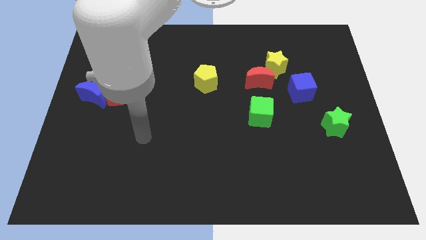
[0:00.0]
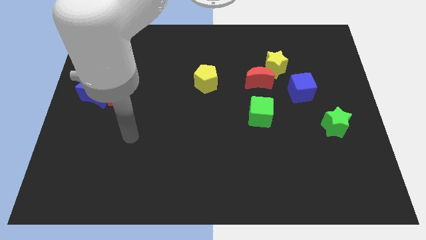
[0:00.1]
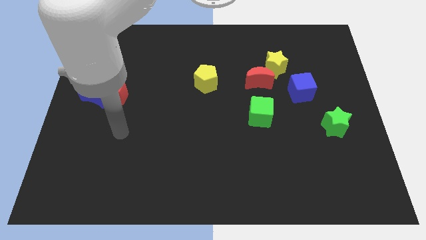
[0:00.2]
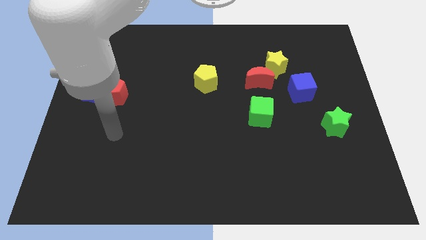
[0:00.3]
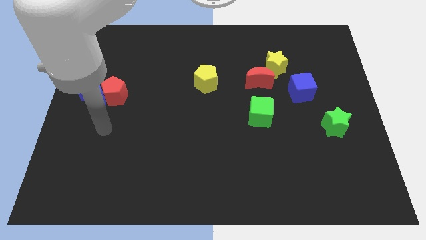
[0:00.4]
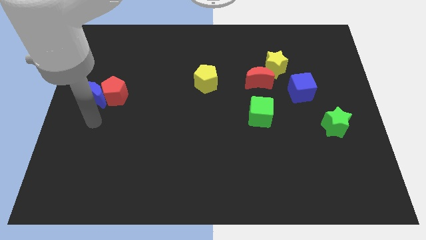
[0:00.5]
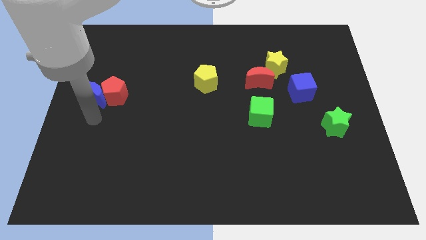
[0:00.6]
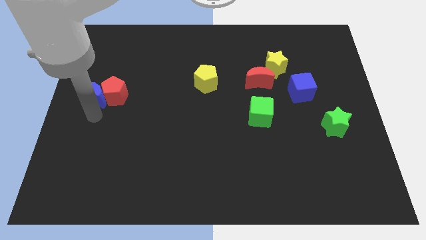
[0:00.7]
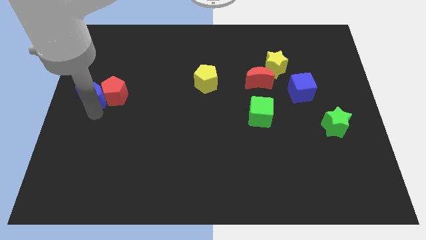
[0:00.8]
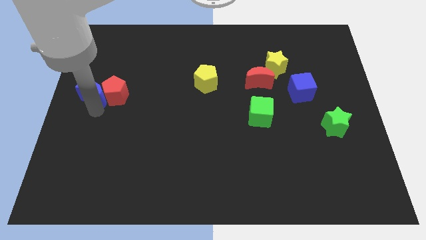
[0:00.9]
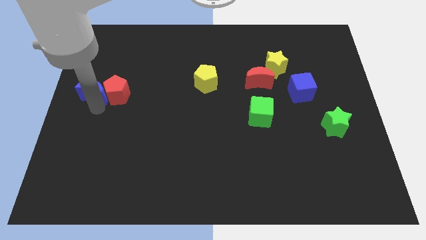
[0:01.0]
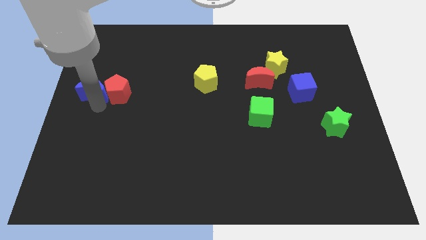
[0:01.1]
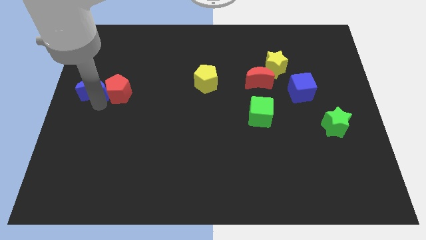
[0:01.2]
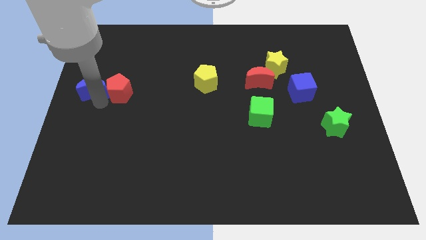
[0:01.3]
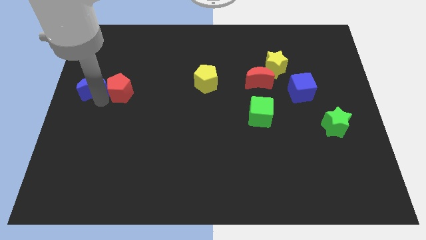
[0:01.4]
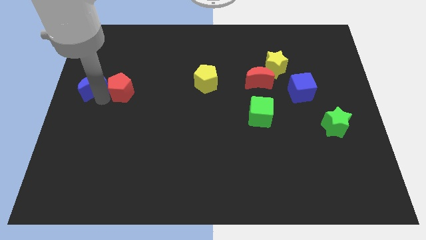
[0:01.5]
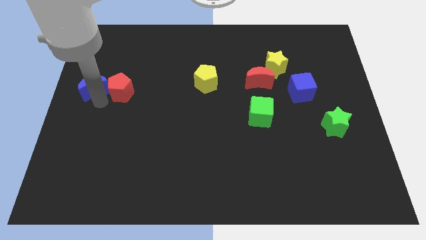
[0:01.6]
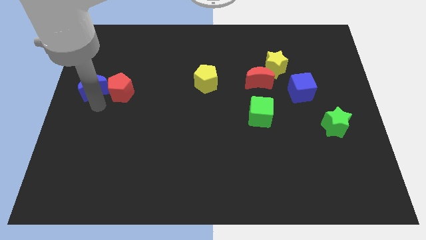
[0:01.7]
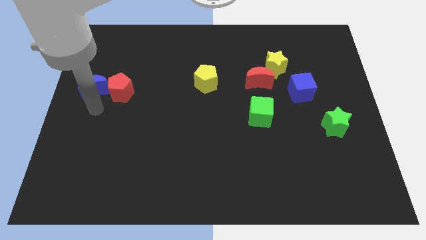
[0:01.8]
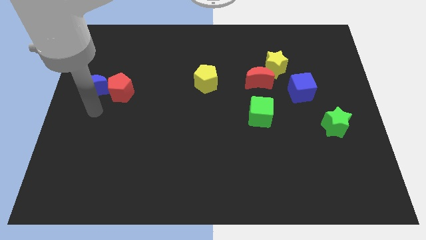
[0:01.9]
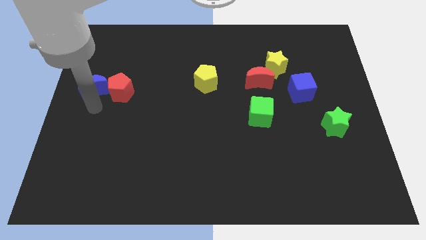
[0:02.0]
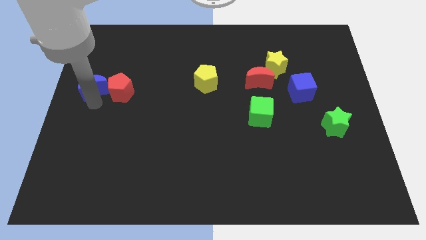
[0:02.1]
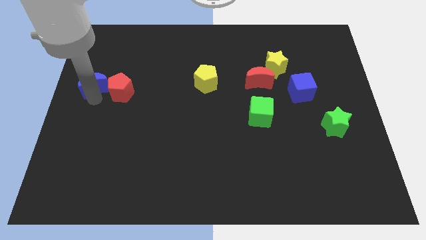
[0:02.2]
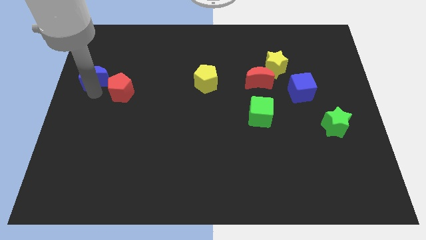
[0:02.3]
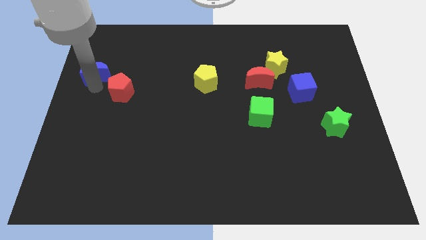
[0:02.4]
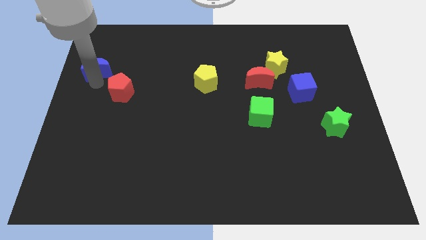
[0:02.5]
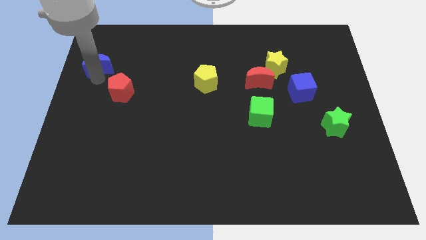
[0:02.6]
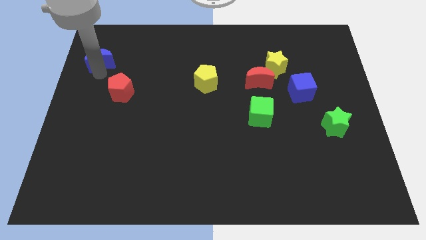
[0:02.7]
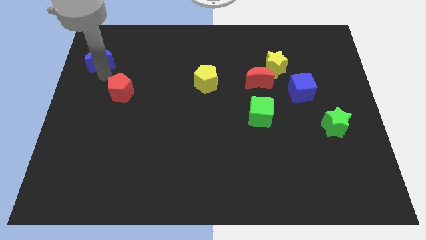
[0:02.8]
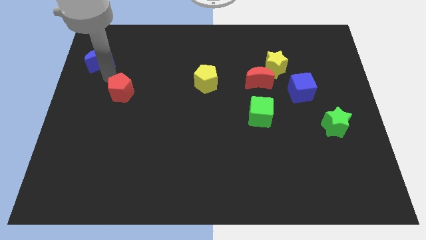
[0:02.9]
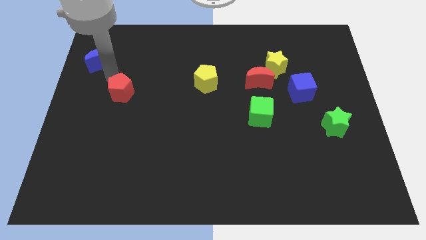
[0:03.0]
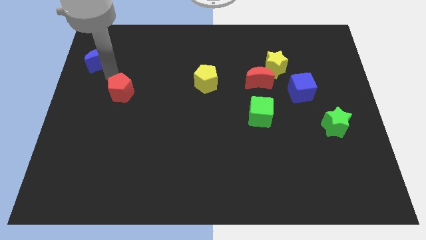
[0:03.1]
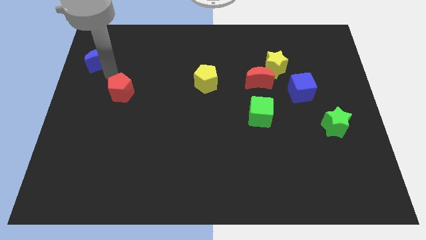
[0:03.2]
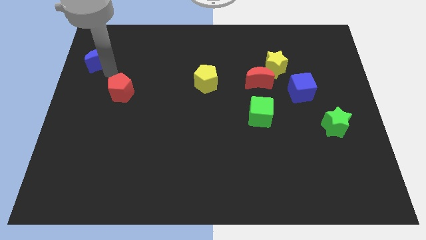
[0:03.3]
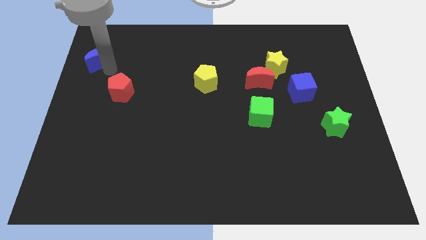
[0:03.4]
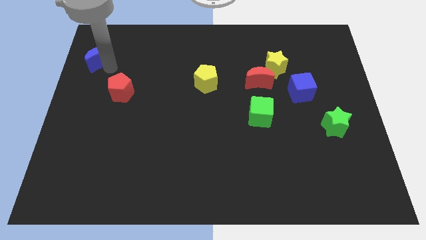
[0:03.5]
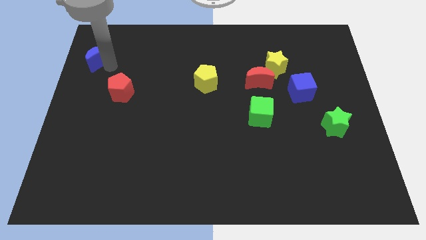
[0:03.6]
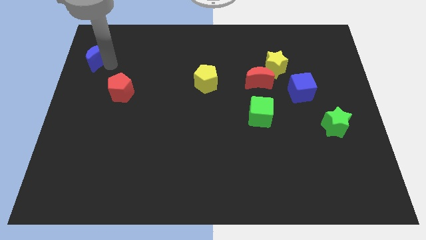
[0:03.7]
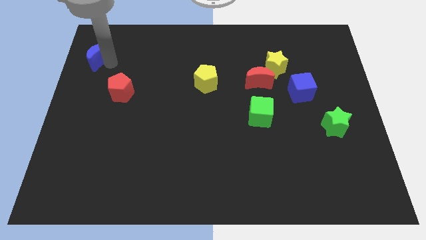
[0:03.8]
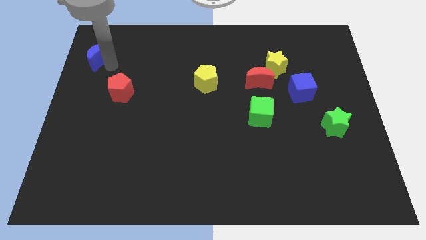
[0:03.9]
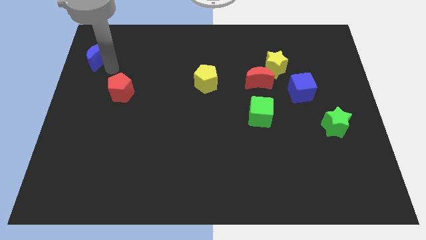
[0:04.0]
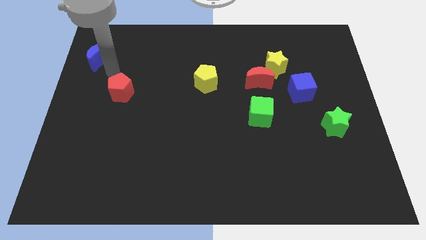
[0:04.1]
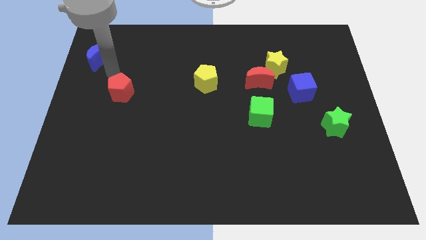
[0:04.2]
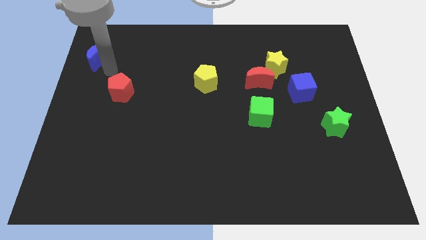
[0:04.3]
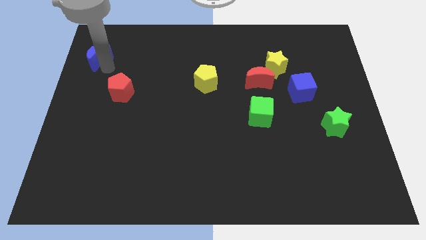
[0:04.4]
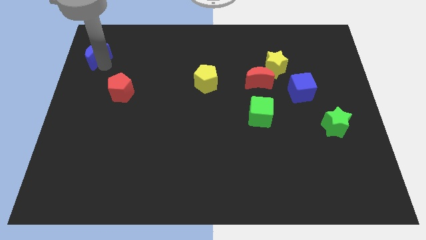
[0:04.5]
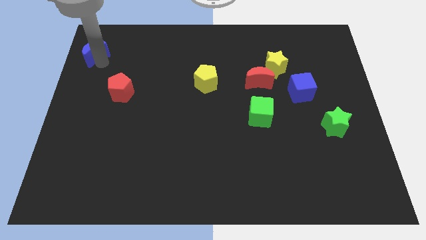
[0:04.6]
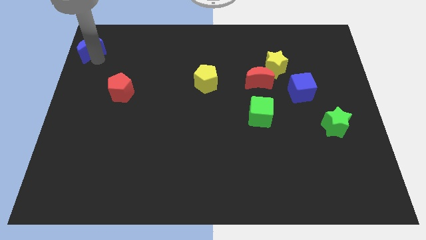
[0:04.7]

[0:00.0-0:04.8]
push the blue moon to the top left corner

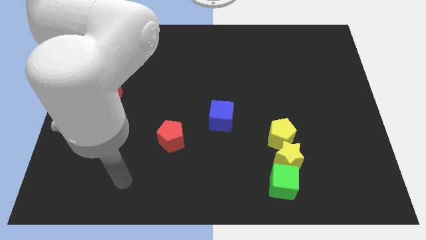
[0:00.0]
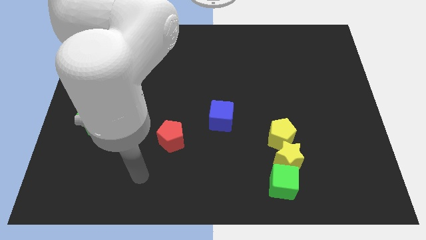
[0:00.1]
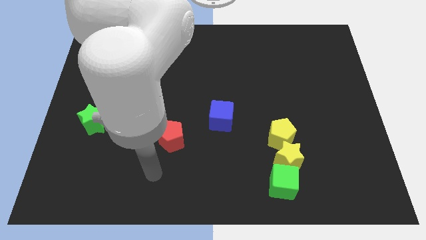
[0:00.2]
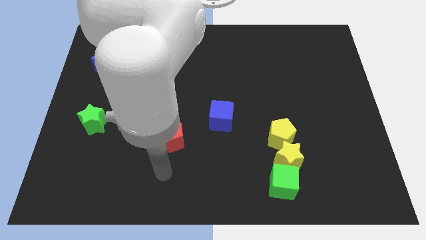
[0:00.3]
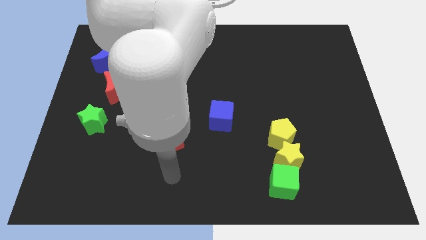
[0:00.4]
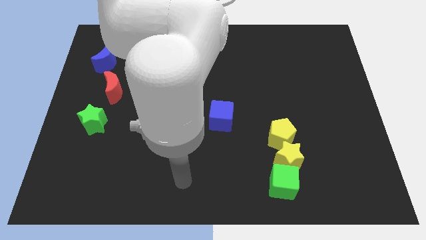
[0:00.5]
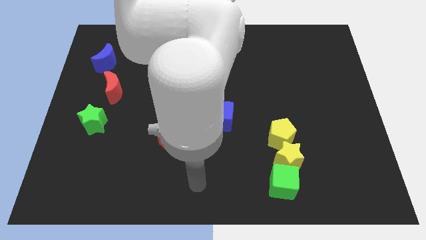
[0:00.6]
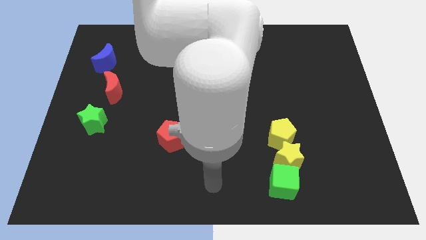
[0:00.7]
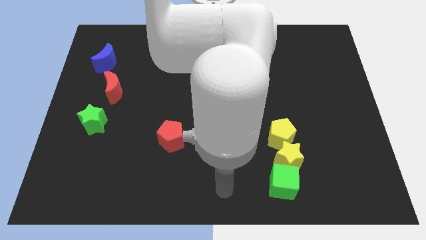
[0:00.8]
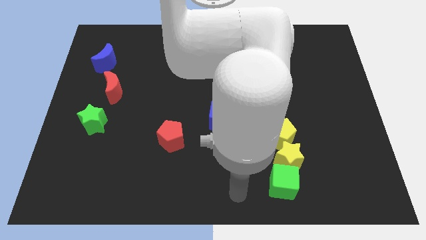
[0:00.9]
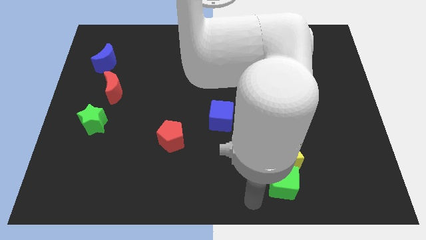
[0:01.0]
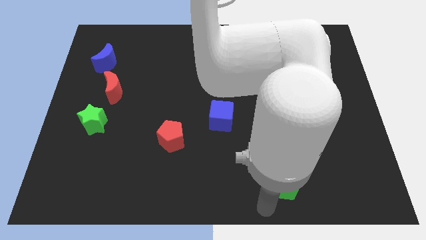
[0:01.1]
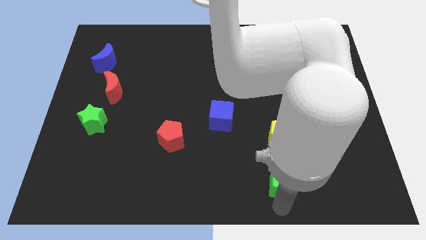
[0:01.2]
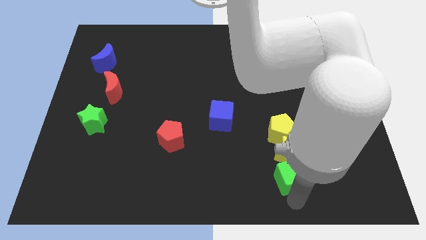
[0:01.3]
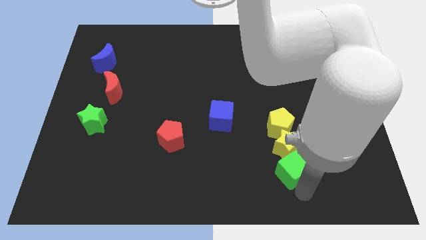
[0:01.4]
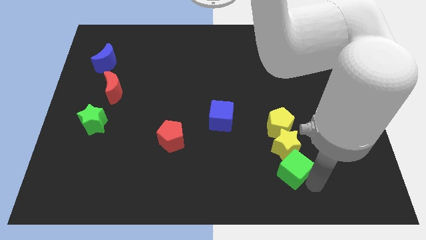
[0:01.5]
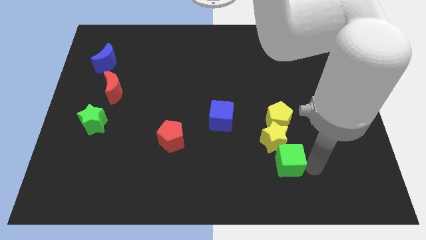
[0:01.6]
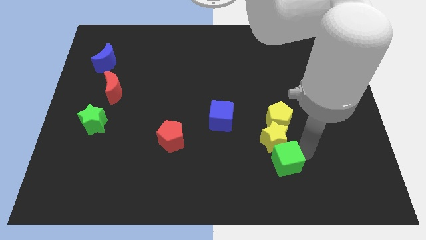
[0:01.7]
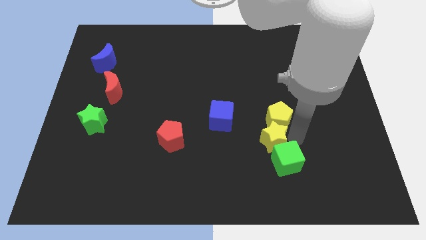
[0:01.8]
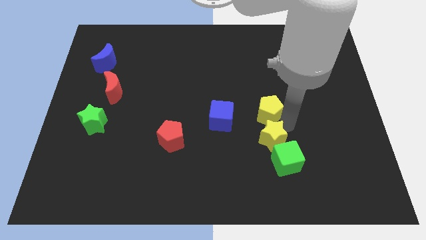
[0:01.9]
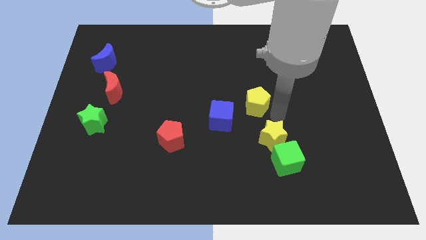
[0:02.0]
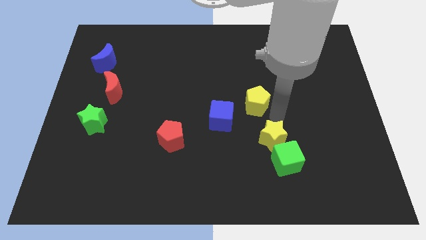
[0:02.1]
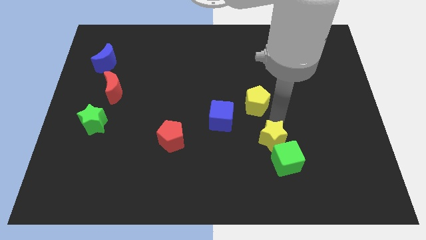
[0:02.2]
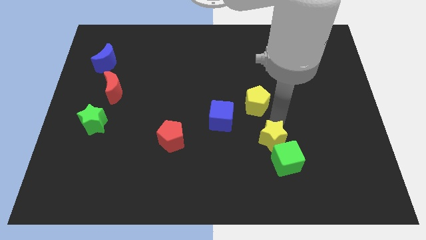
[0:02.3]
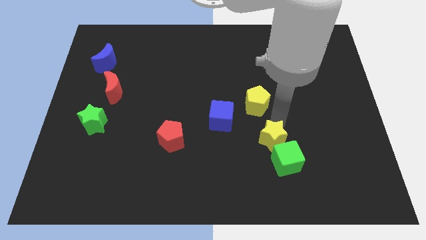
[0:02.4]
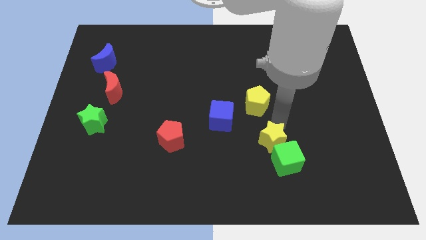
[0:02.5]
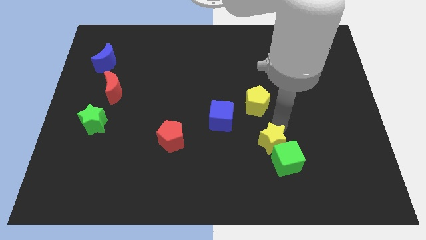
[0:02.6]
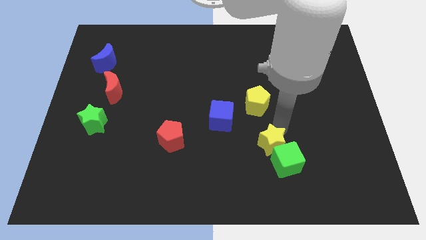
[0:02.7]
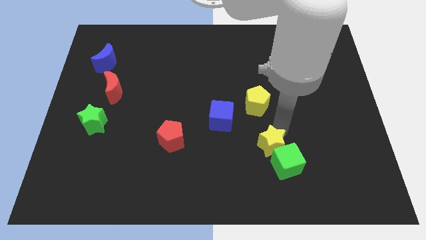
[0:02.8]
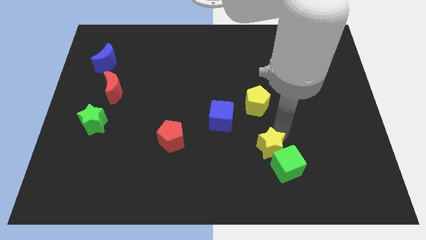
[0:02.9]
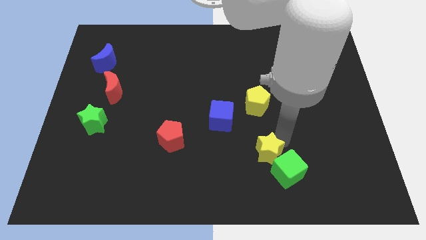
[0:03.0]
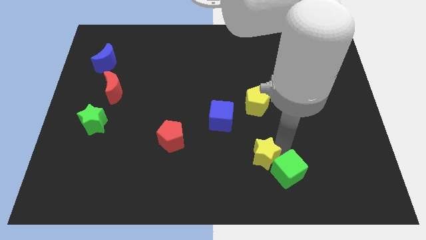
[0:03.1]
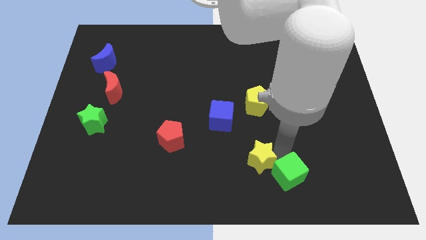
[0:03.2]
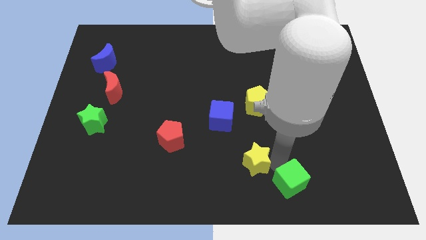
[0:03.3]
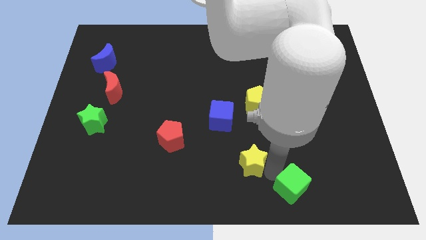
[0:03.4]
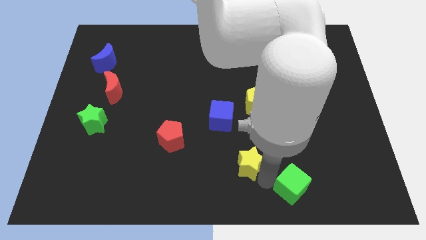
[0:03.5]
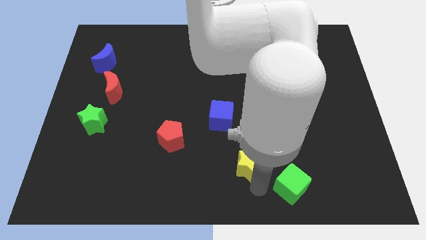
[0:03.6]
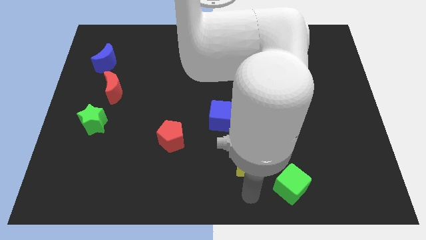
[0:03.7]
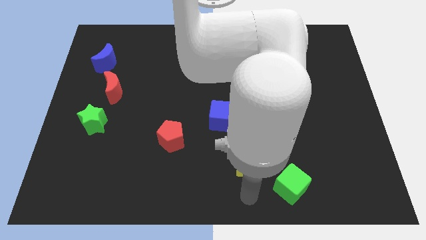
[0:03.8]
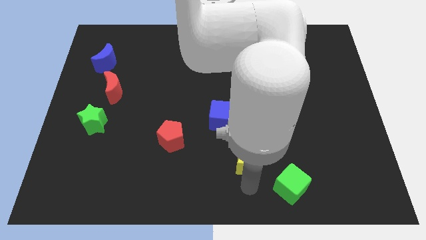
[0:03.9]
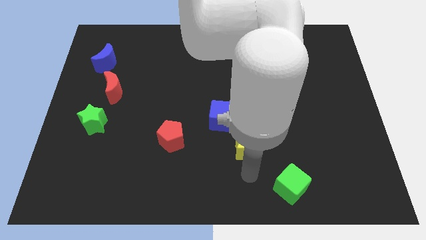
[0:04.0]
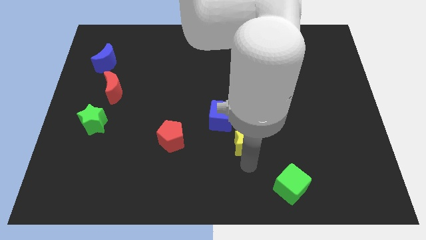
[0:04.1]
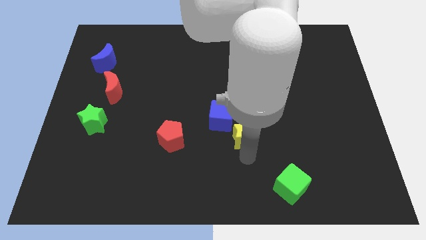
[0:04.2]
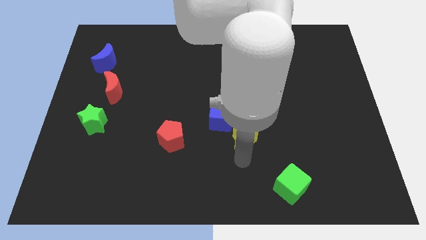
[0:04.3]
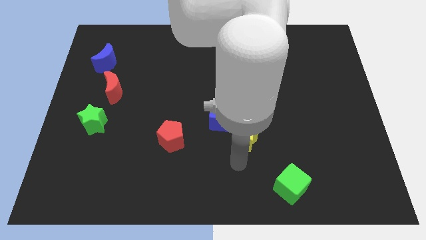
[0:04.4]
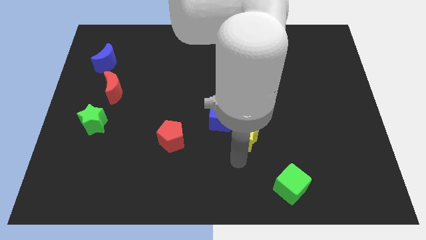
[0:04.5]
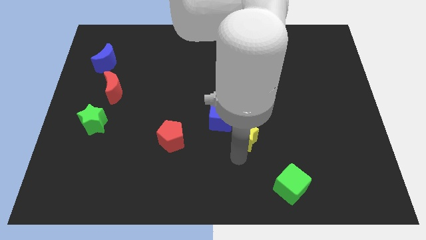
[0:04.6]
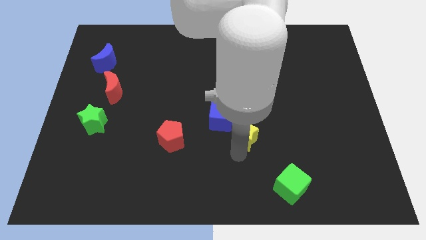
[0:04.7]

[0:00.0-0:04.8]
push the yellow star to the middle of the board
